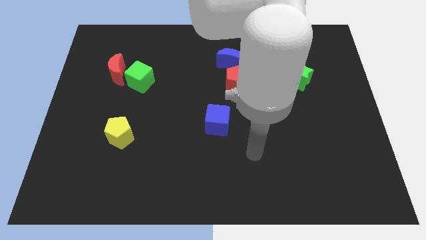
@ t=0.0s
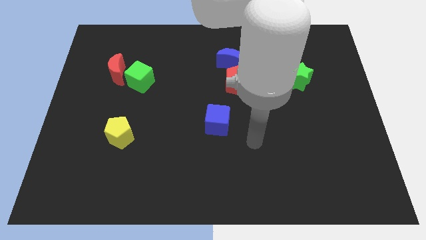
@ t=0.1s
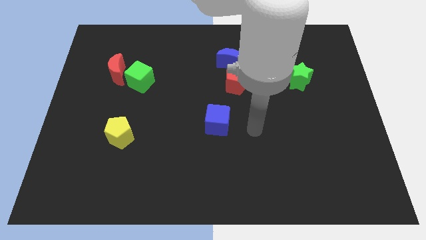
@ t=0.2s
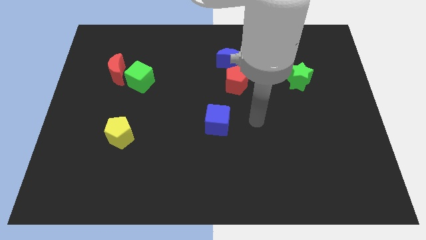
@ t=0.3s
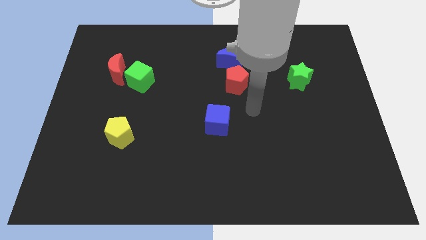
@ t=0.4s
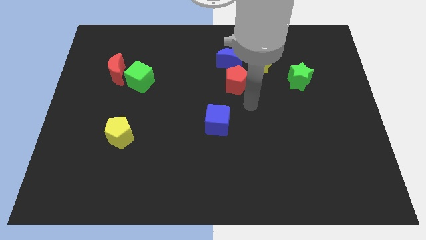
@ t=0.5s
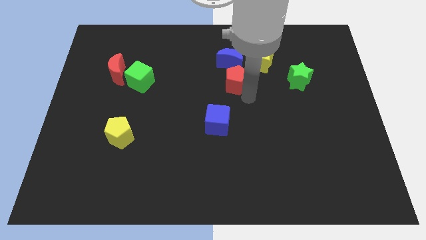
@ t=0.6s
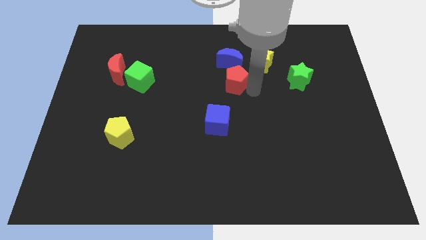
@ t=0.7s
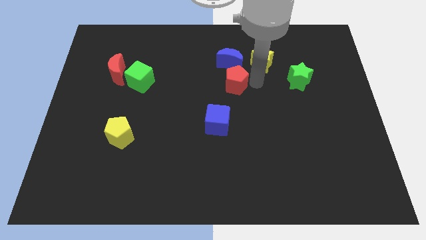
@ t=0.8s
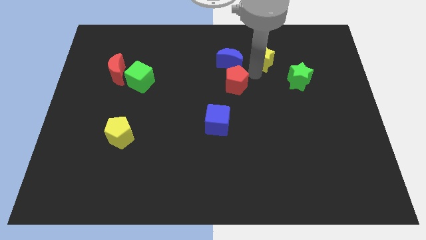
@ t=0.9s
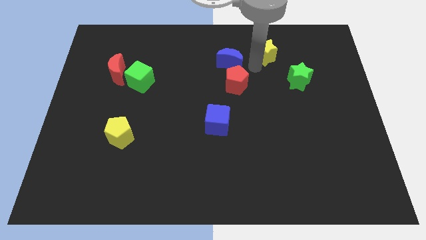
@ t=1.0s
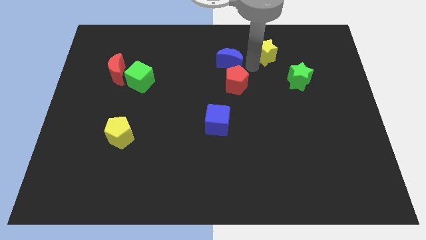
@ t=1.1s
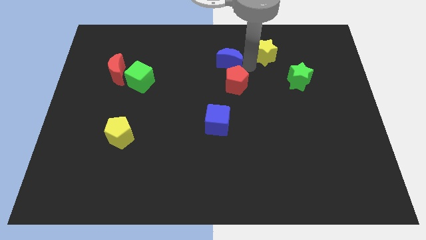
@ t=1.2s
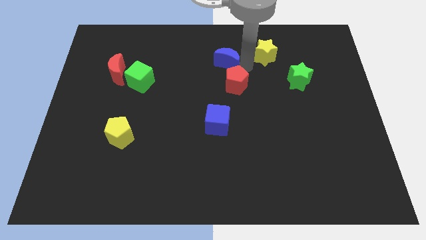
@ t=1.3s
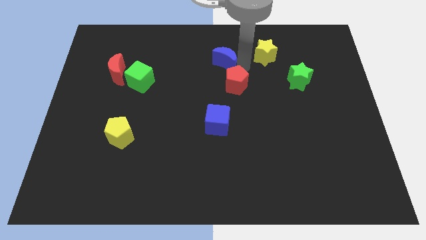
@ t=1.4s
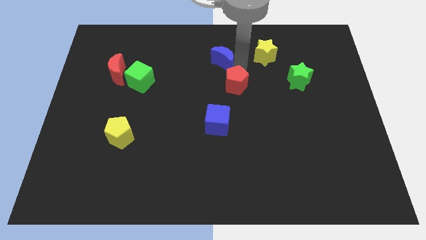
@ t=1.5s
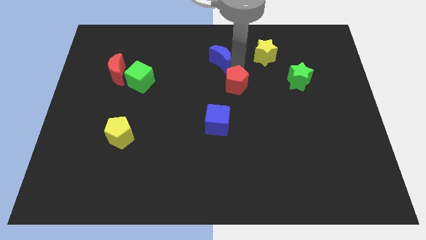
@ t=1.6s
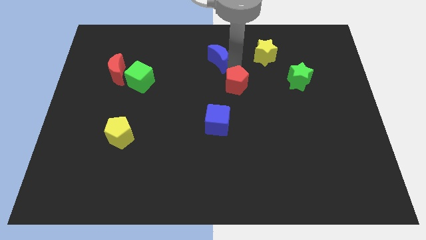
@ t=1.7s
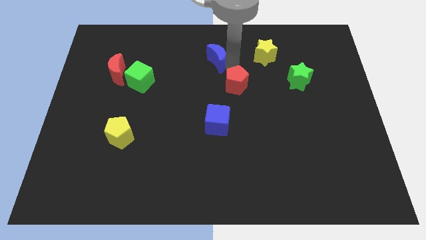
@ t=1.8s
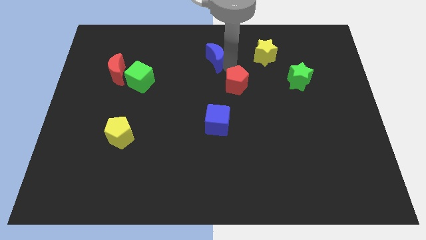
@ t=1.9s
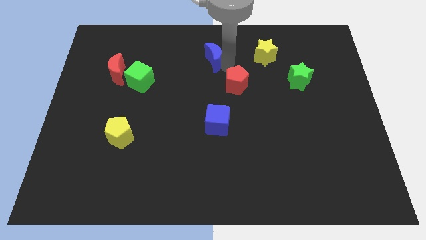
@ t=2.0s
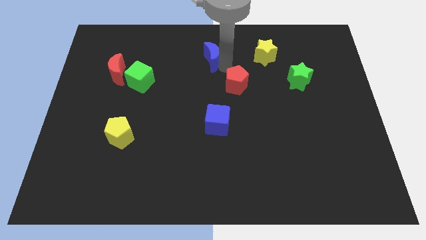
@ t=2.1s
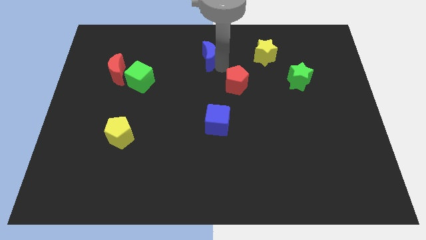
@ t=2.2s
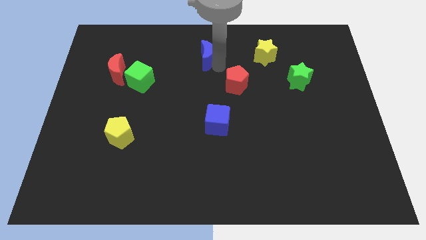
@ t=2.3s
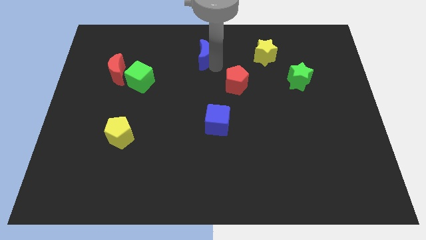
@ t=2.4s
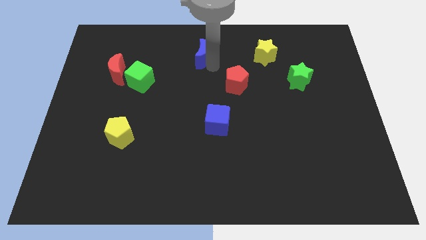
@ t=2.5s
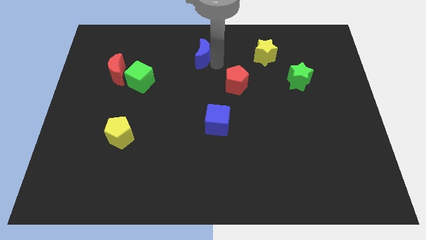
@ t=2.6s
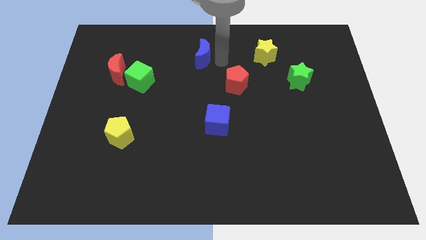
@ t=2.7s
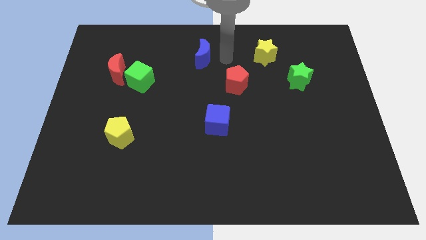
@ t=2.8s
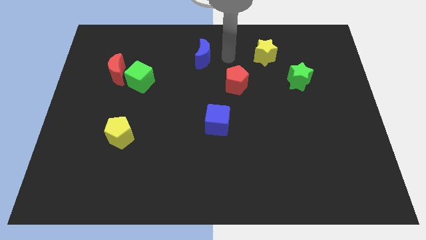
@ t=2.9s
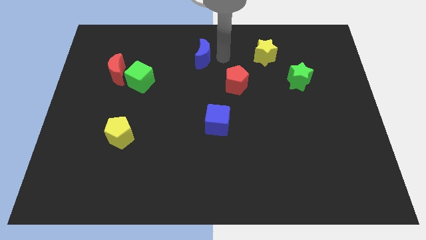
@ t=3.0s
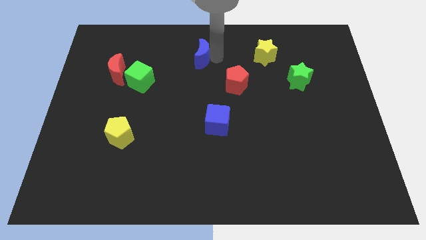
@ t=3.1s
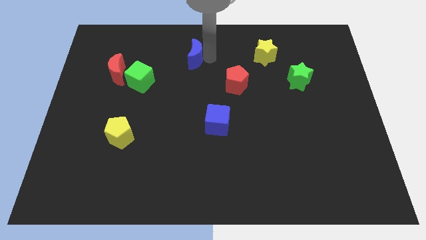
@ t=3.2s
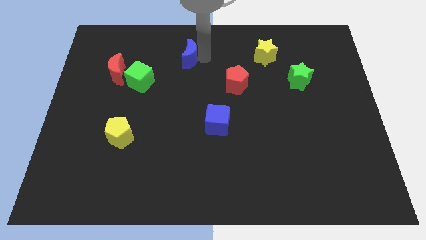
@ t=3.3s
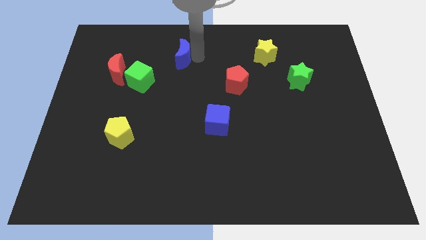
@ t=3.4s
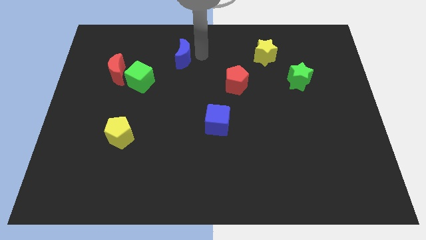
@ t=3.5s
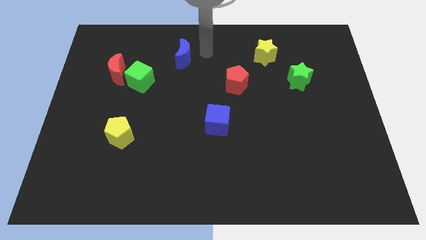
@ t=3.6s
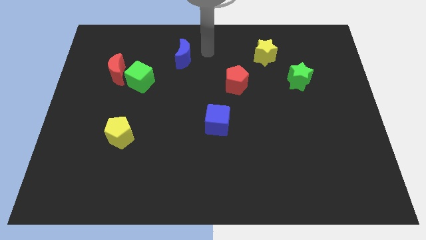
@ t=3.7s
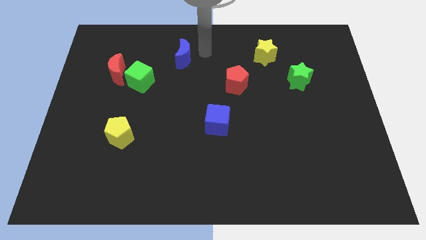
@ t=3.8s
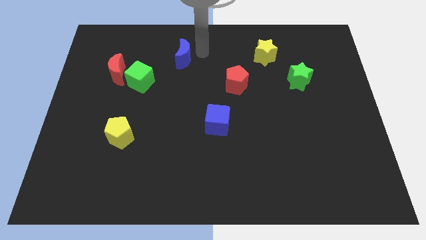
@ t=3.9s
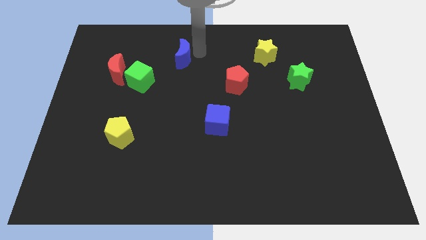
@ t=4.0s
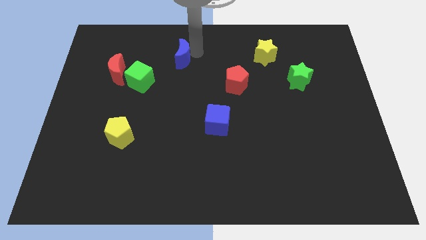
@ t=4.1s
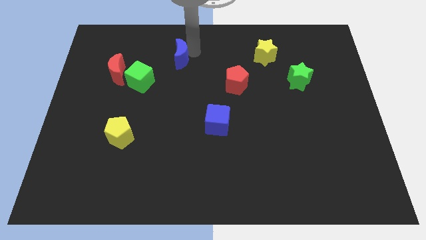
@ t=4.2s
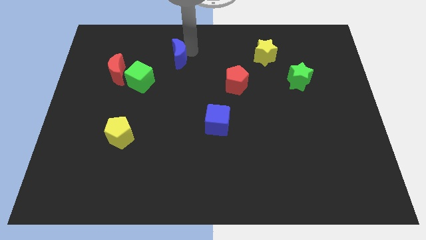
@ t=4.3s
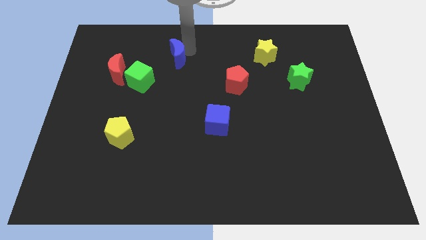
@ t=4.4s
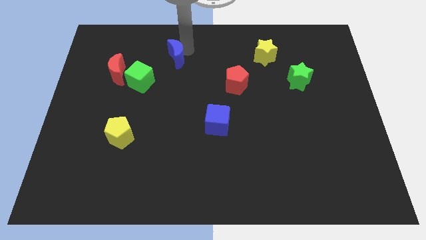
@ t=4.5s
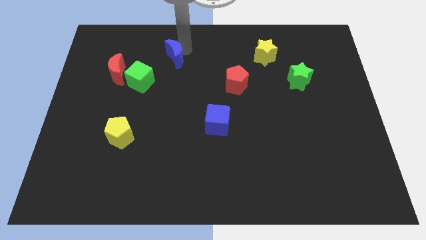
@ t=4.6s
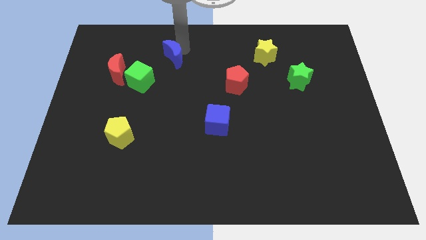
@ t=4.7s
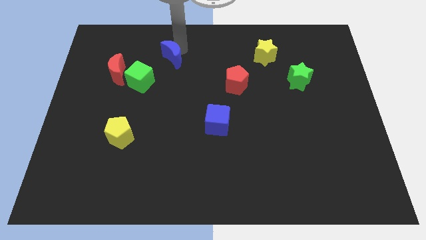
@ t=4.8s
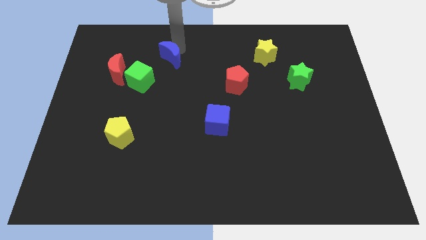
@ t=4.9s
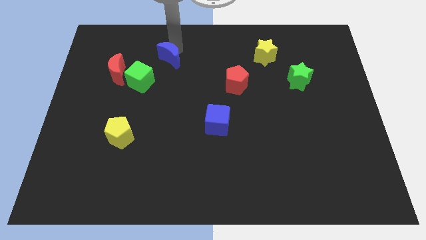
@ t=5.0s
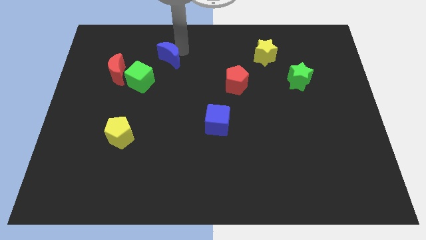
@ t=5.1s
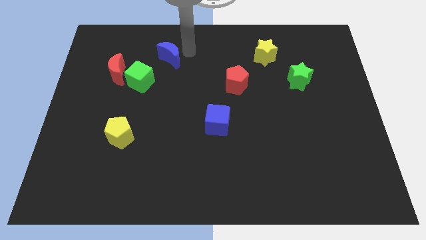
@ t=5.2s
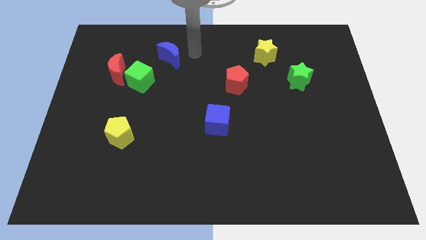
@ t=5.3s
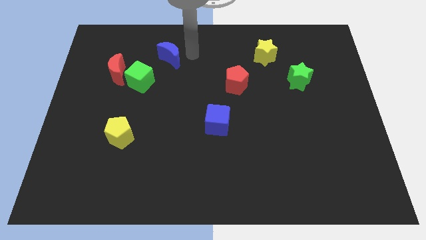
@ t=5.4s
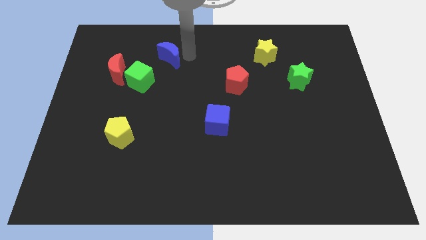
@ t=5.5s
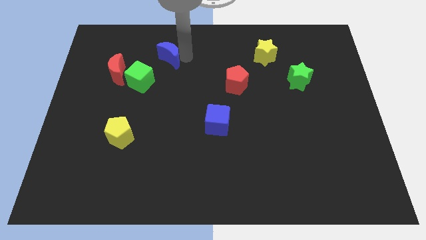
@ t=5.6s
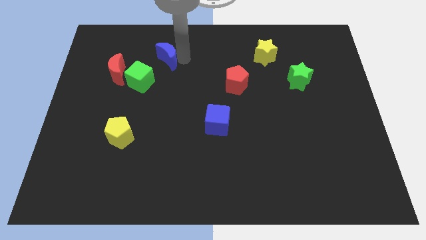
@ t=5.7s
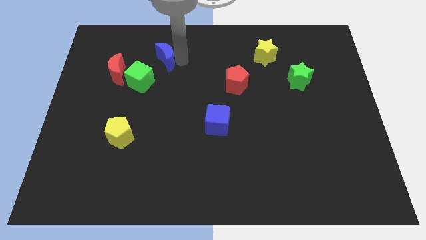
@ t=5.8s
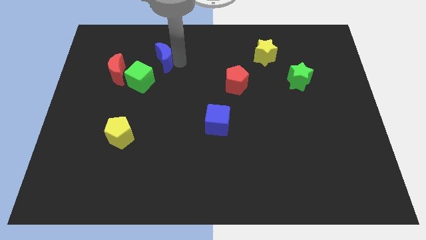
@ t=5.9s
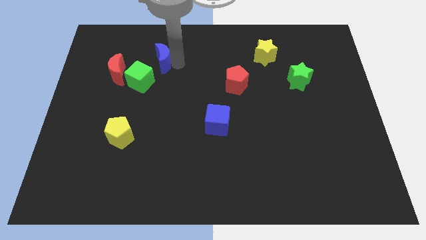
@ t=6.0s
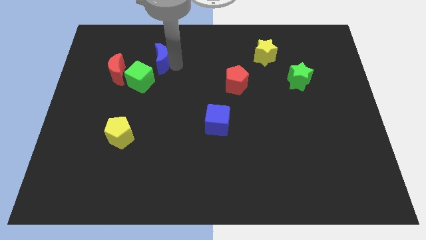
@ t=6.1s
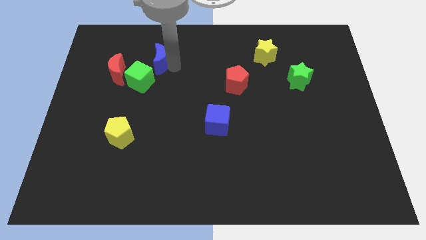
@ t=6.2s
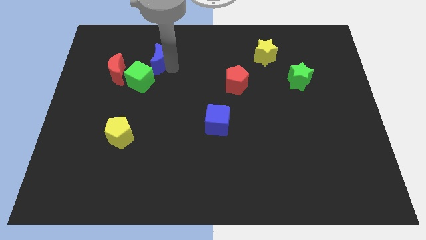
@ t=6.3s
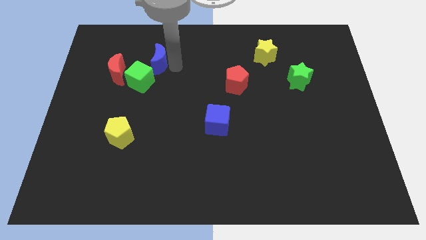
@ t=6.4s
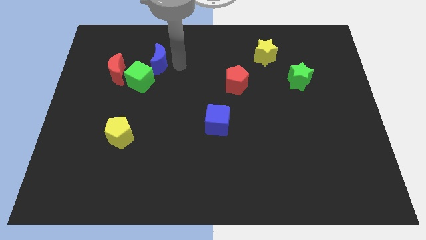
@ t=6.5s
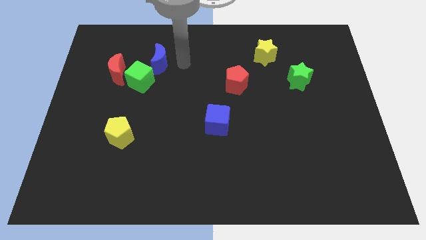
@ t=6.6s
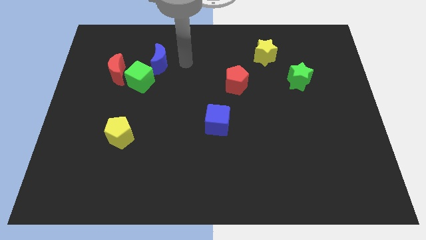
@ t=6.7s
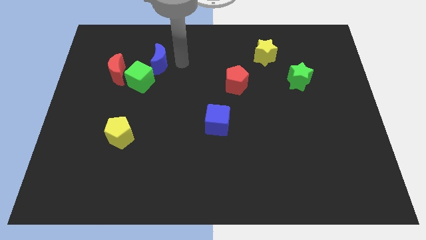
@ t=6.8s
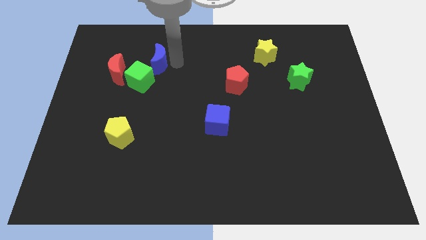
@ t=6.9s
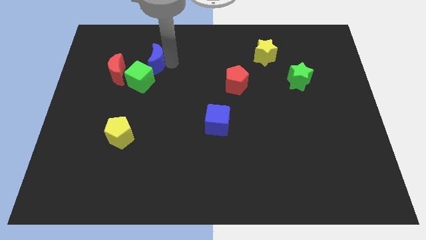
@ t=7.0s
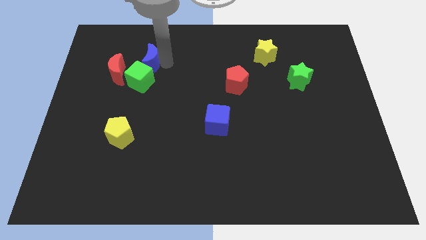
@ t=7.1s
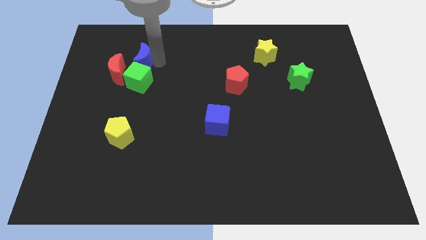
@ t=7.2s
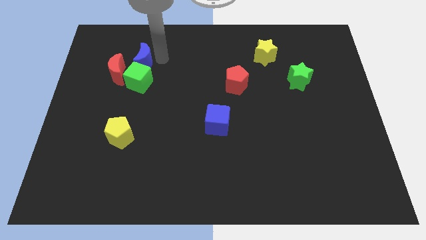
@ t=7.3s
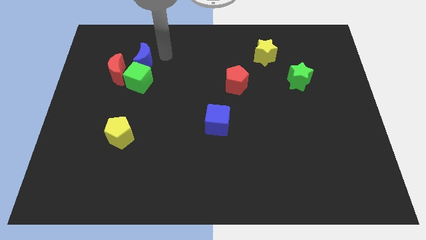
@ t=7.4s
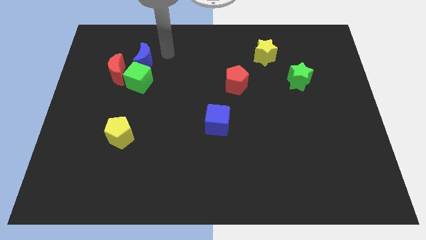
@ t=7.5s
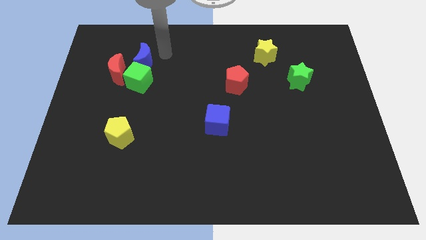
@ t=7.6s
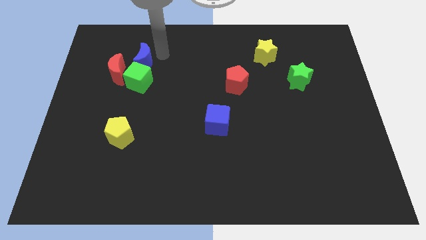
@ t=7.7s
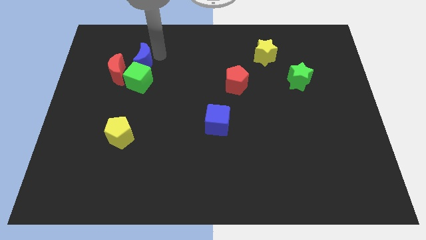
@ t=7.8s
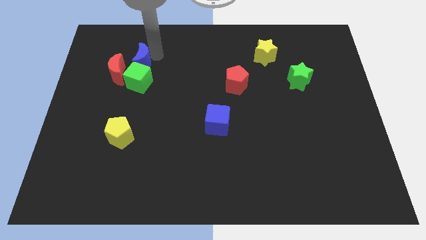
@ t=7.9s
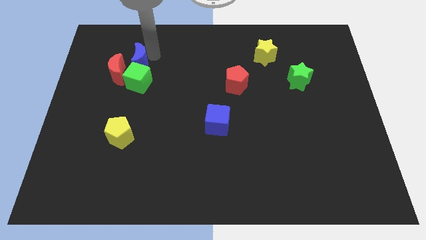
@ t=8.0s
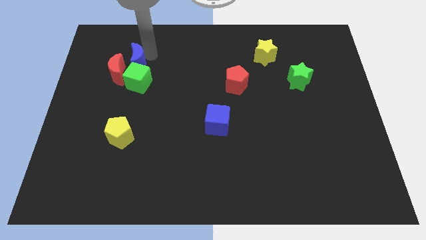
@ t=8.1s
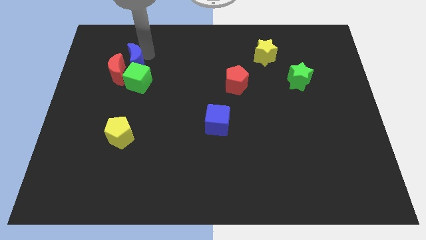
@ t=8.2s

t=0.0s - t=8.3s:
slide the blue moon to the red moon
